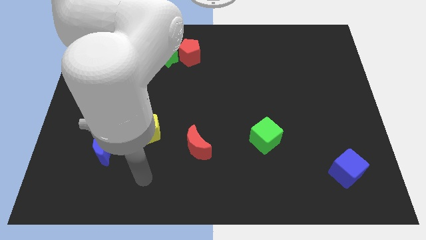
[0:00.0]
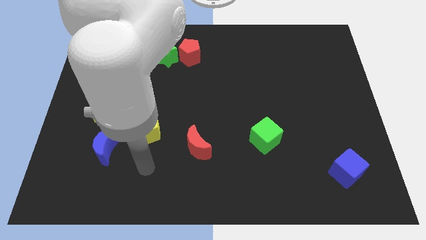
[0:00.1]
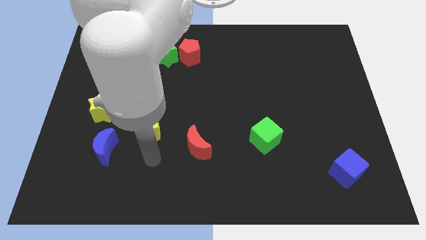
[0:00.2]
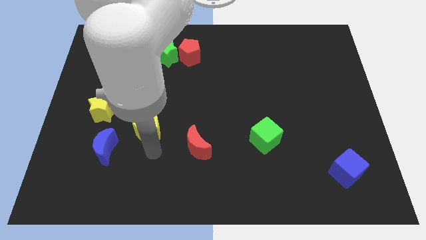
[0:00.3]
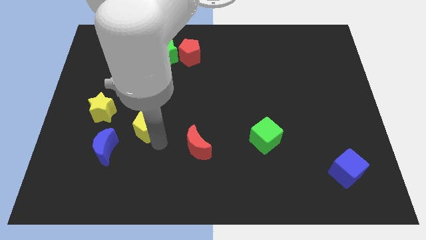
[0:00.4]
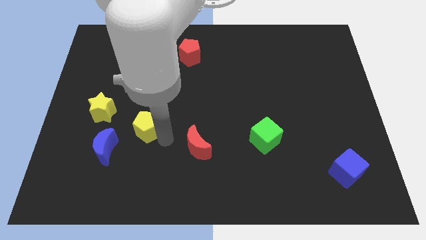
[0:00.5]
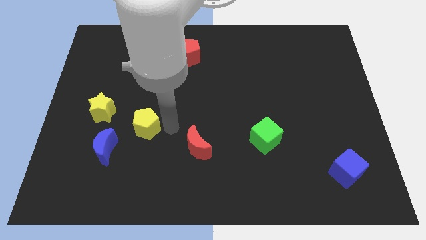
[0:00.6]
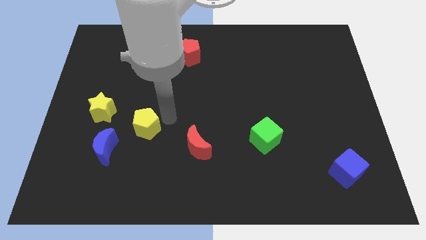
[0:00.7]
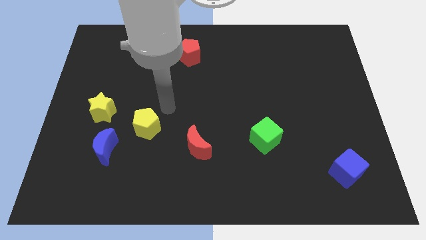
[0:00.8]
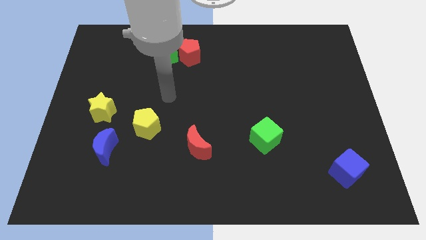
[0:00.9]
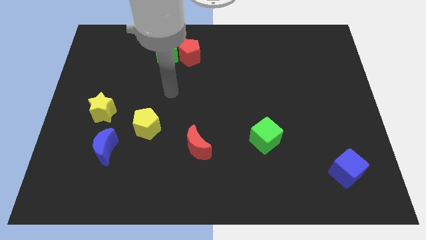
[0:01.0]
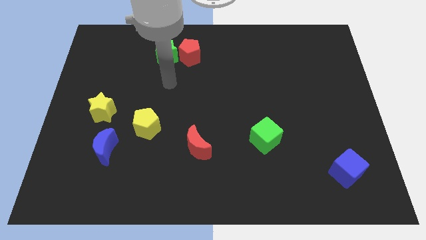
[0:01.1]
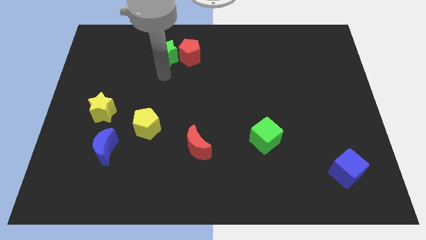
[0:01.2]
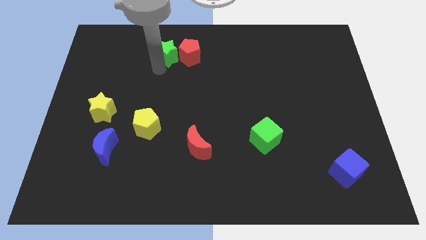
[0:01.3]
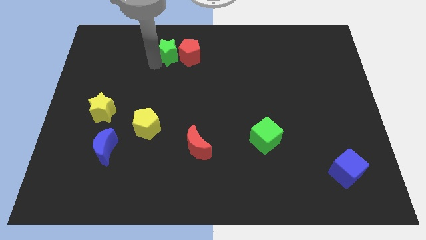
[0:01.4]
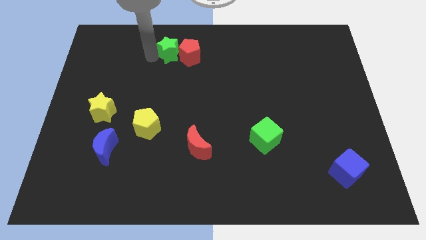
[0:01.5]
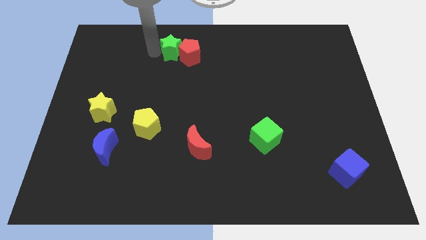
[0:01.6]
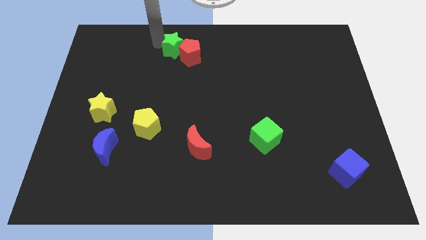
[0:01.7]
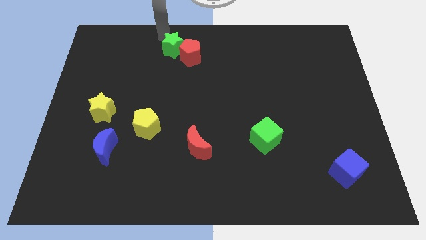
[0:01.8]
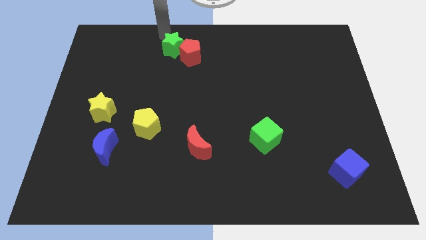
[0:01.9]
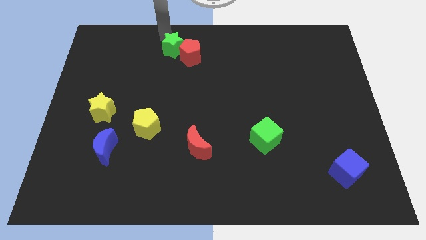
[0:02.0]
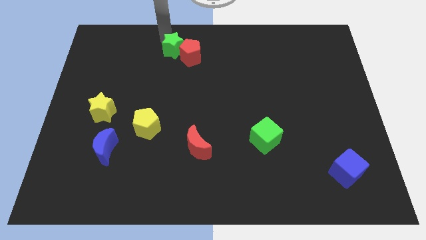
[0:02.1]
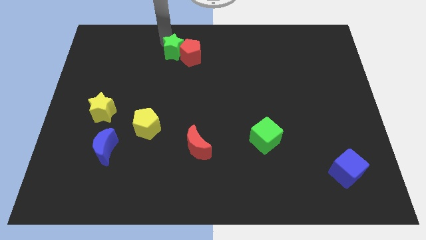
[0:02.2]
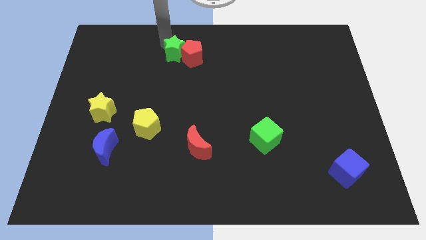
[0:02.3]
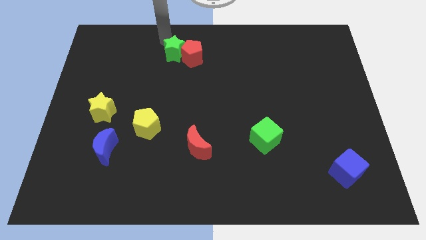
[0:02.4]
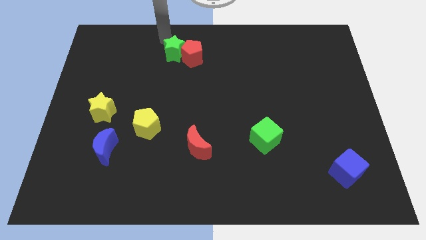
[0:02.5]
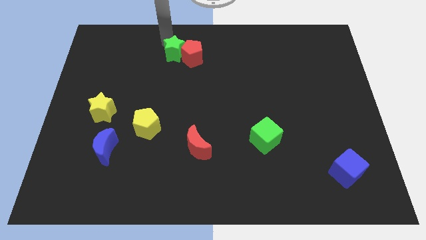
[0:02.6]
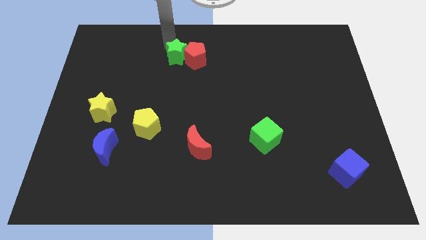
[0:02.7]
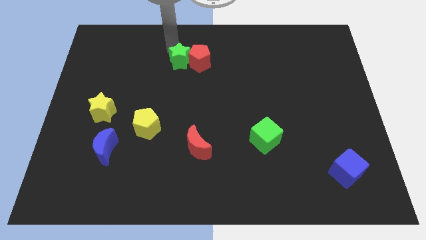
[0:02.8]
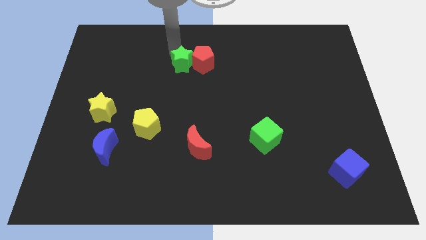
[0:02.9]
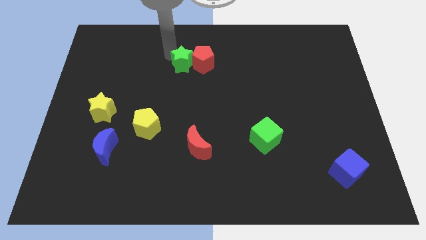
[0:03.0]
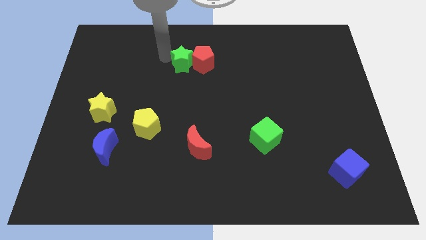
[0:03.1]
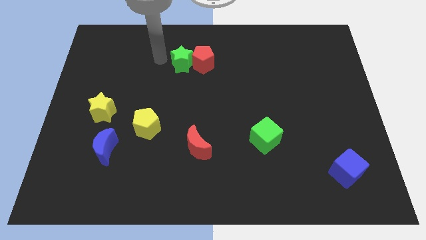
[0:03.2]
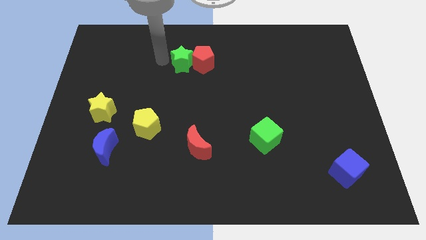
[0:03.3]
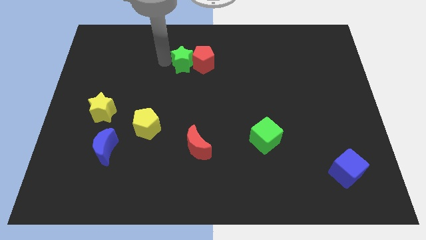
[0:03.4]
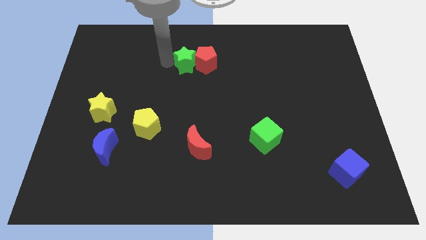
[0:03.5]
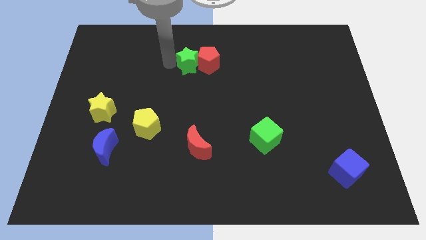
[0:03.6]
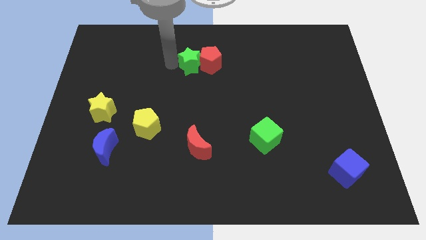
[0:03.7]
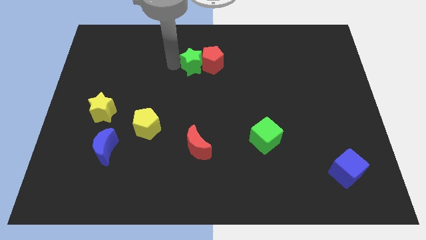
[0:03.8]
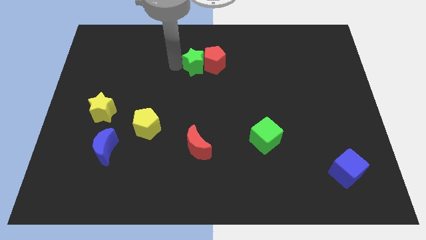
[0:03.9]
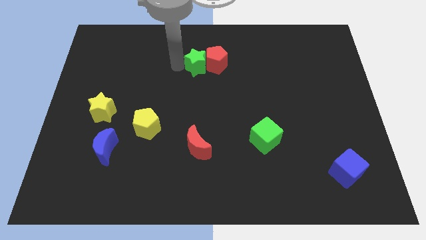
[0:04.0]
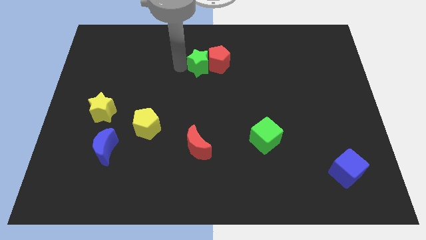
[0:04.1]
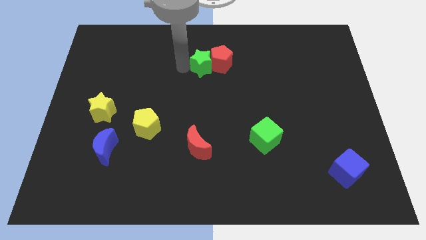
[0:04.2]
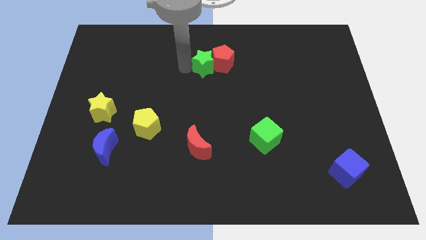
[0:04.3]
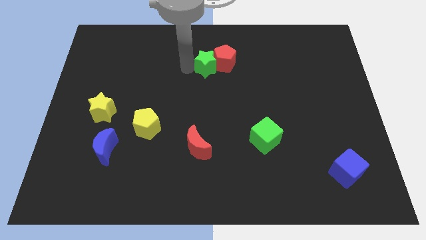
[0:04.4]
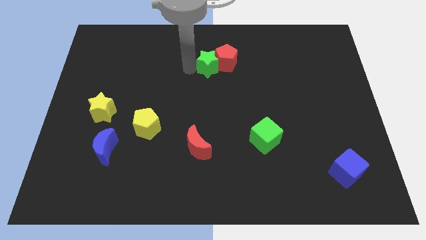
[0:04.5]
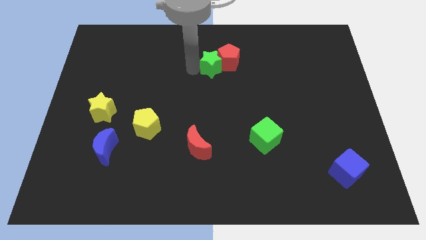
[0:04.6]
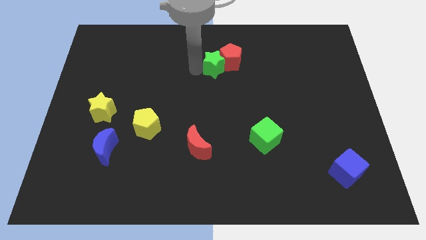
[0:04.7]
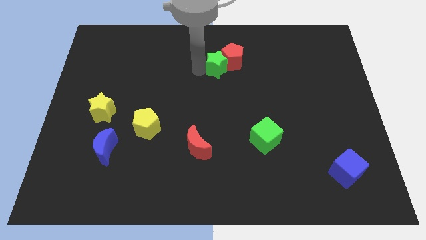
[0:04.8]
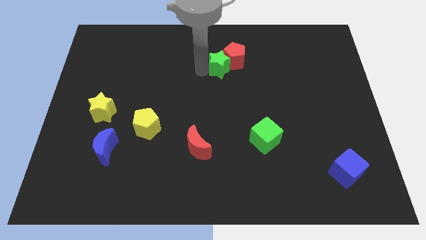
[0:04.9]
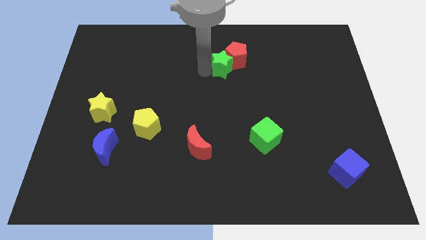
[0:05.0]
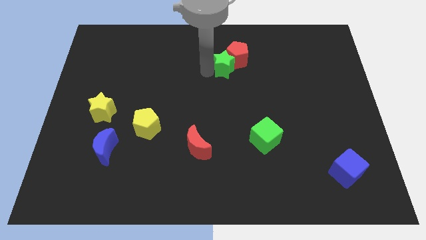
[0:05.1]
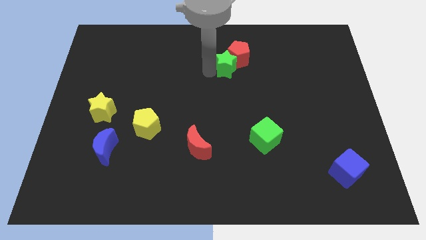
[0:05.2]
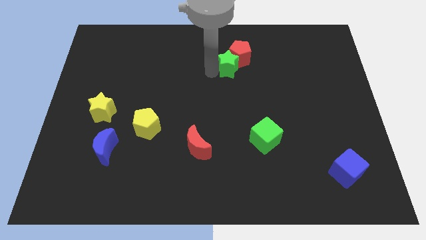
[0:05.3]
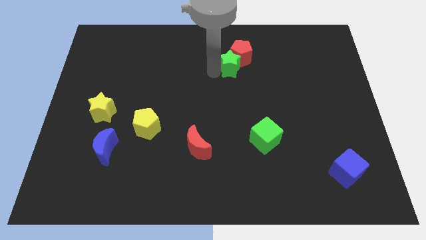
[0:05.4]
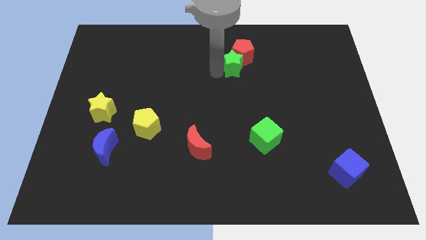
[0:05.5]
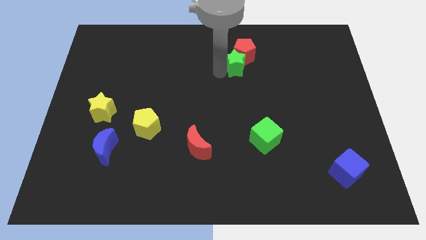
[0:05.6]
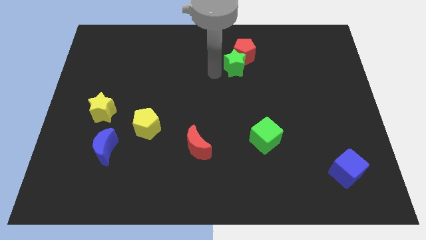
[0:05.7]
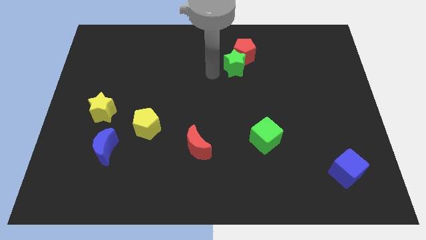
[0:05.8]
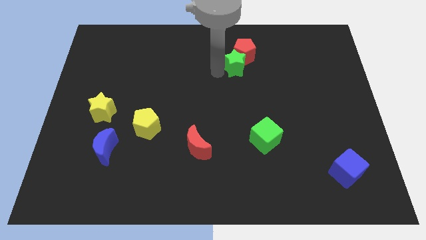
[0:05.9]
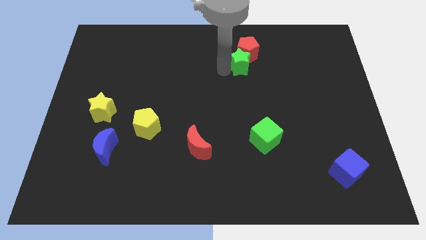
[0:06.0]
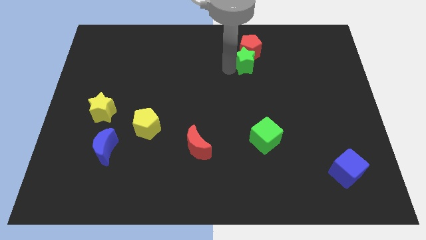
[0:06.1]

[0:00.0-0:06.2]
push the green star to the right

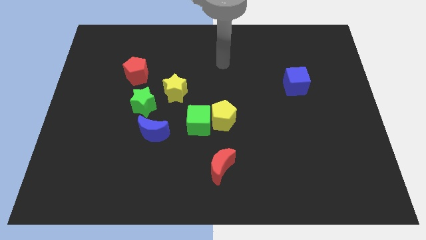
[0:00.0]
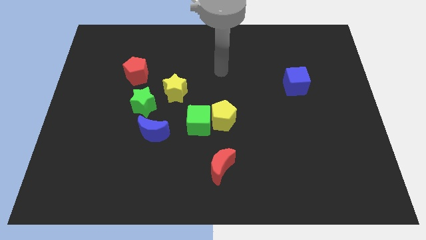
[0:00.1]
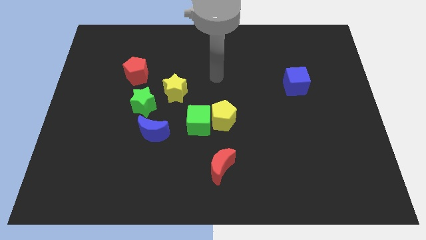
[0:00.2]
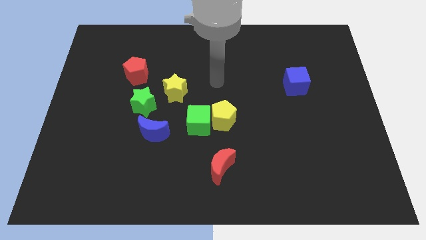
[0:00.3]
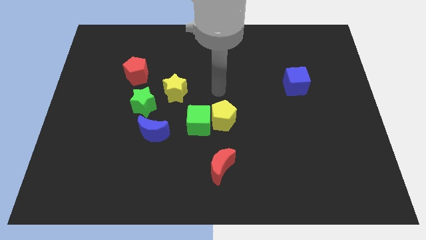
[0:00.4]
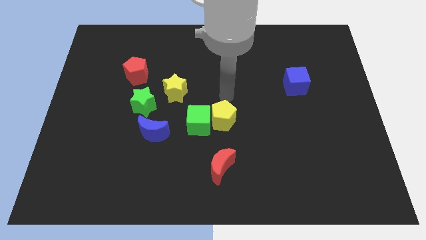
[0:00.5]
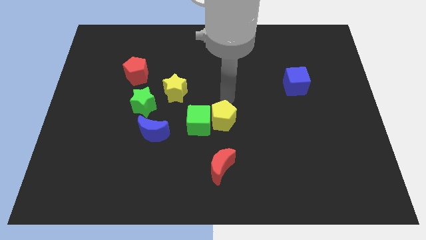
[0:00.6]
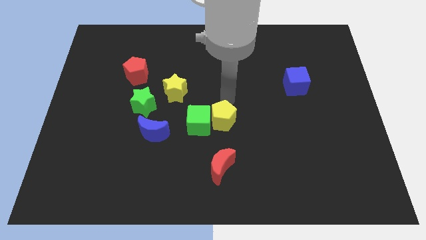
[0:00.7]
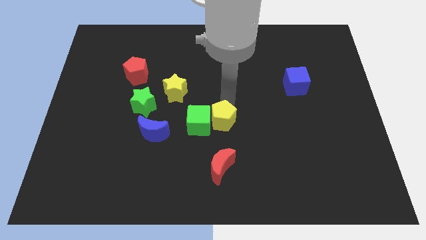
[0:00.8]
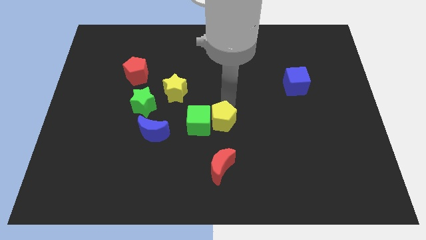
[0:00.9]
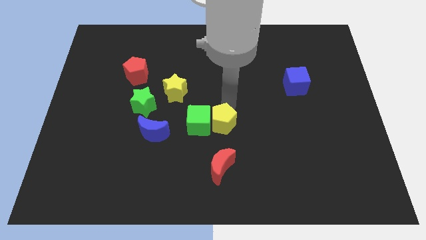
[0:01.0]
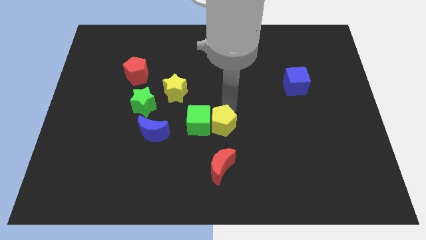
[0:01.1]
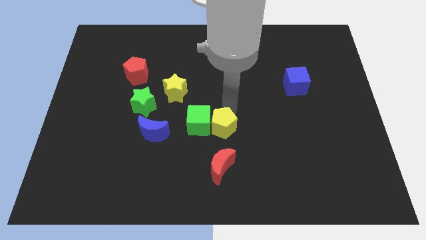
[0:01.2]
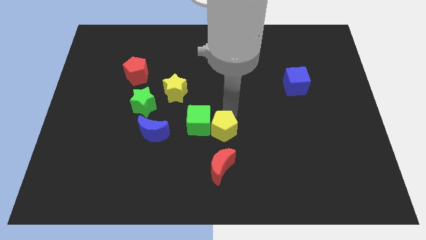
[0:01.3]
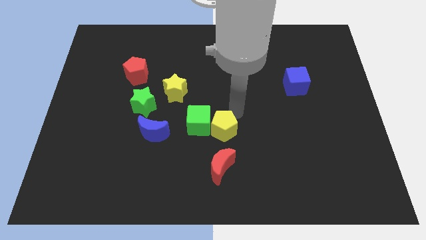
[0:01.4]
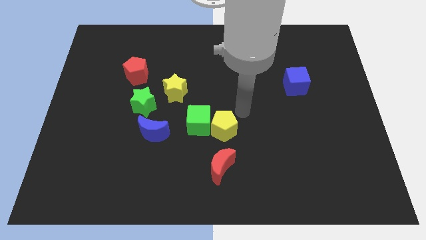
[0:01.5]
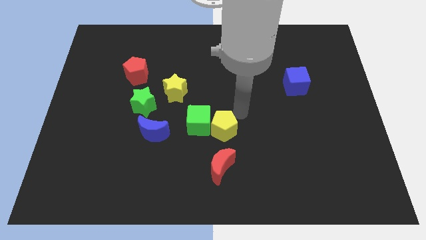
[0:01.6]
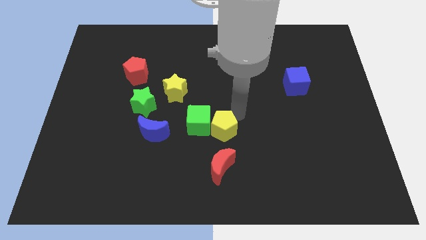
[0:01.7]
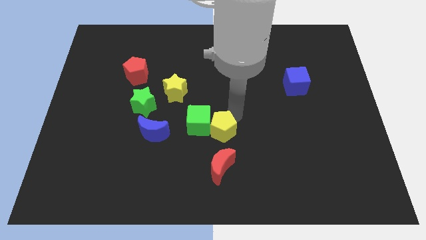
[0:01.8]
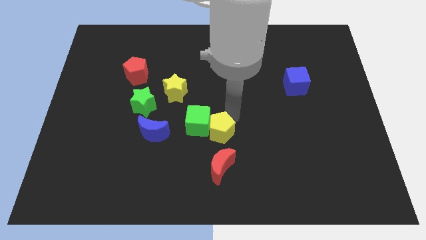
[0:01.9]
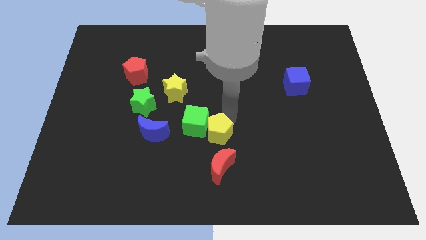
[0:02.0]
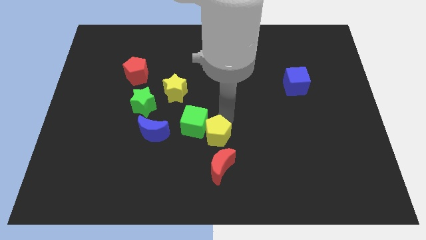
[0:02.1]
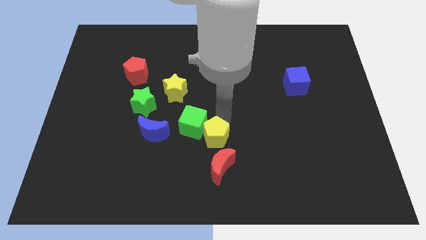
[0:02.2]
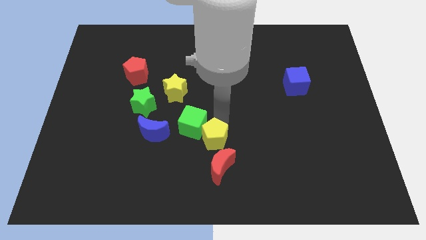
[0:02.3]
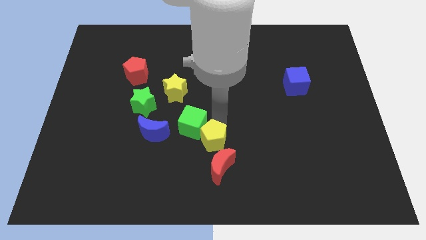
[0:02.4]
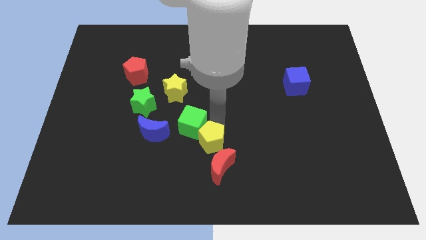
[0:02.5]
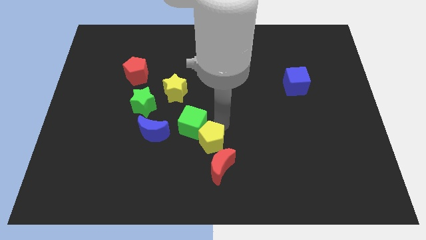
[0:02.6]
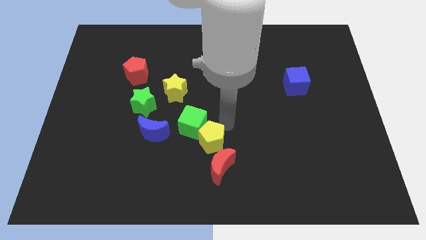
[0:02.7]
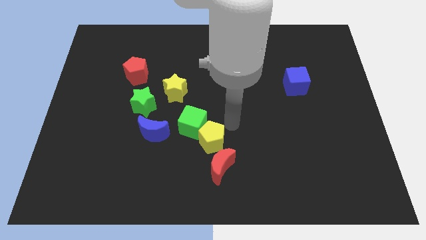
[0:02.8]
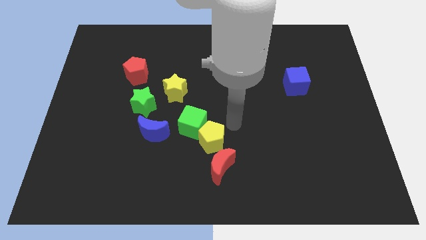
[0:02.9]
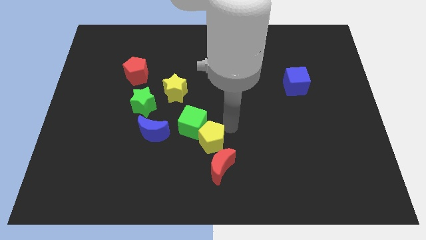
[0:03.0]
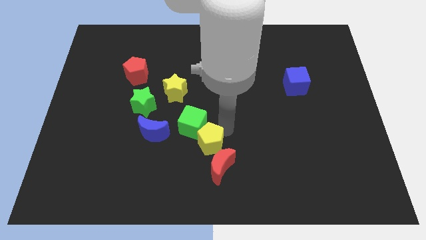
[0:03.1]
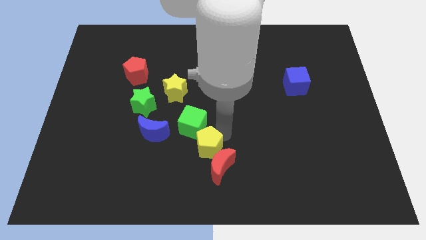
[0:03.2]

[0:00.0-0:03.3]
slide the yellow pentagon downwards and then left somewhat
